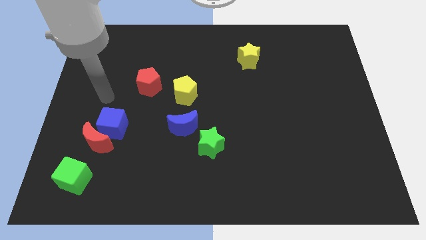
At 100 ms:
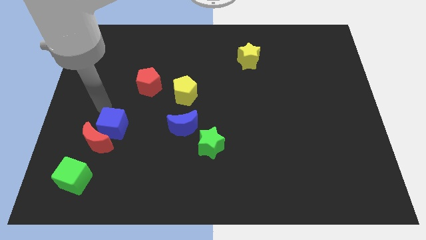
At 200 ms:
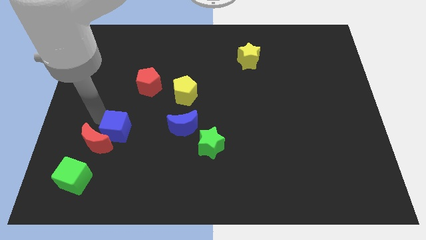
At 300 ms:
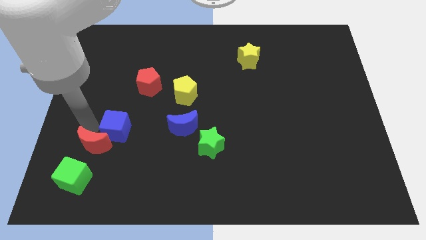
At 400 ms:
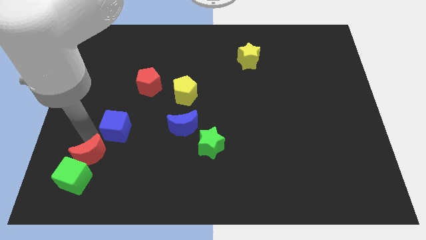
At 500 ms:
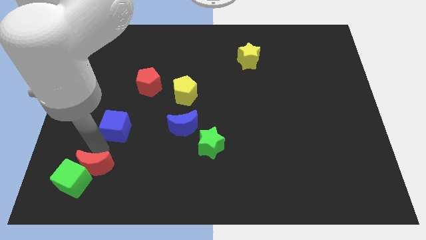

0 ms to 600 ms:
separate the blue cube from the red moon

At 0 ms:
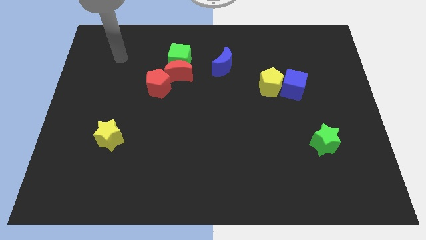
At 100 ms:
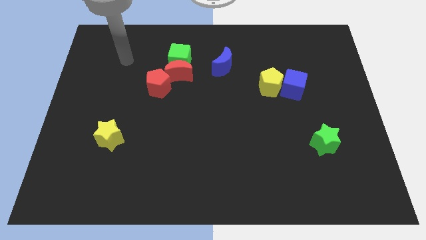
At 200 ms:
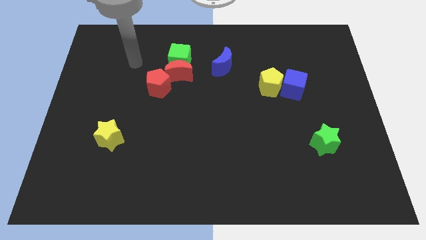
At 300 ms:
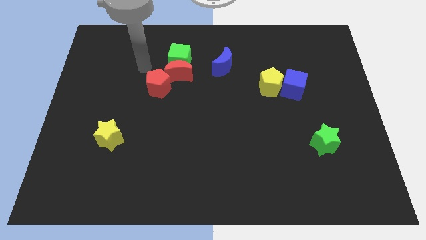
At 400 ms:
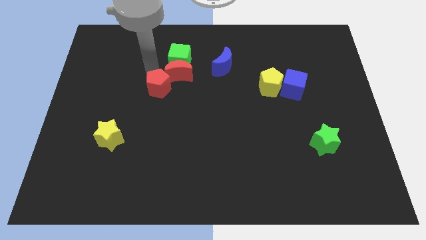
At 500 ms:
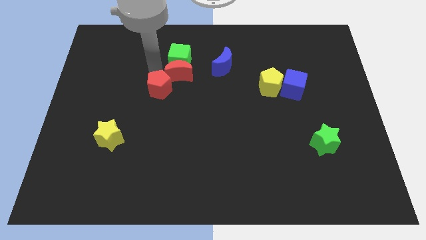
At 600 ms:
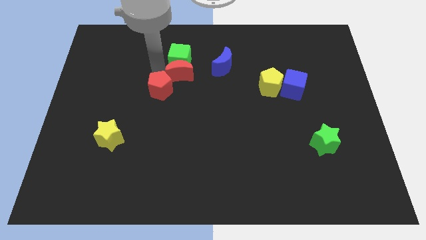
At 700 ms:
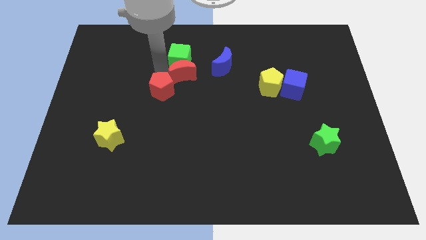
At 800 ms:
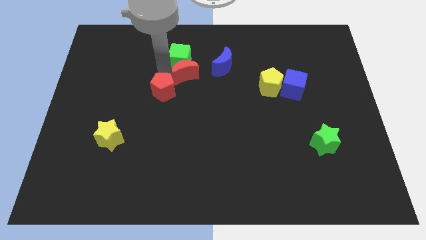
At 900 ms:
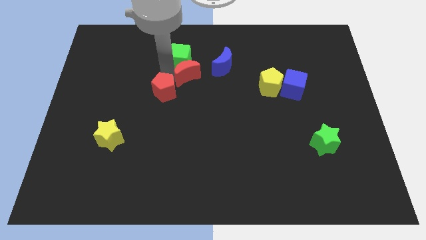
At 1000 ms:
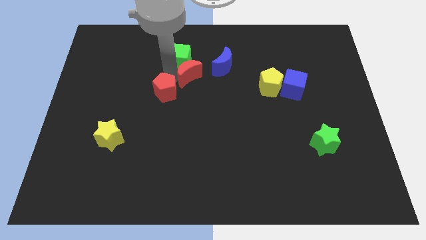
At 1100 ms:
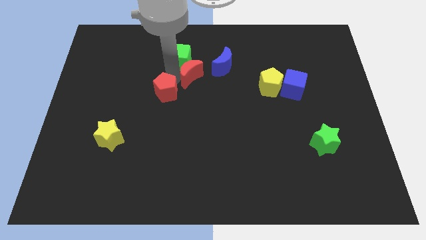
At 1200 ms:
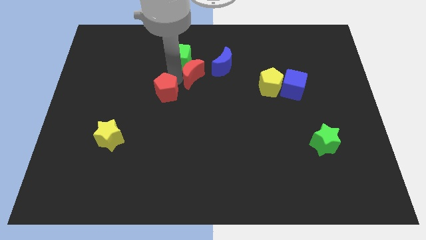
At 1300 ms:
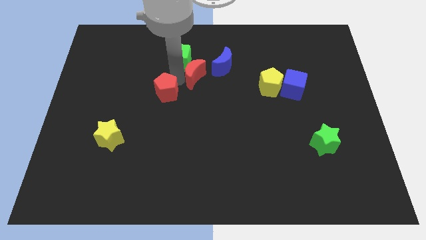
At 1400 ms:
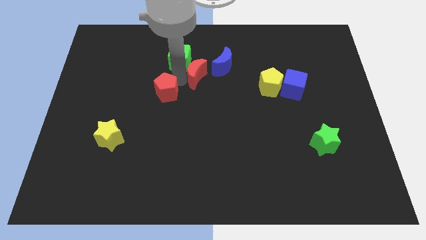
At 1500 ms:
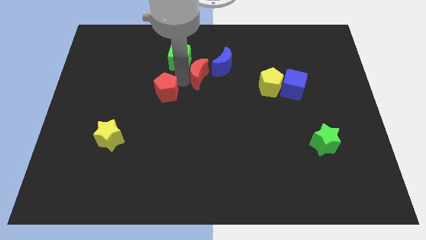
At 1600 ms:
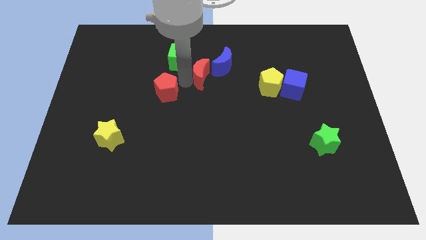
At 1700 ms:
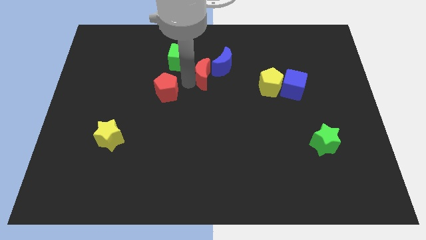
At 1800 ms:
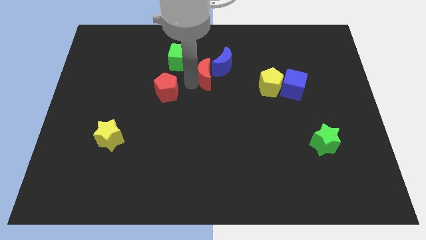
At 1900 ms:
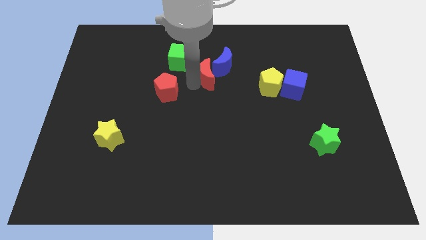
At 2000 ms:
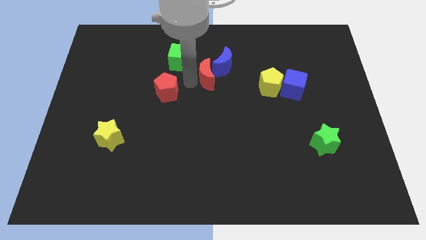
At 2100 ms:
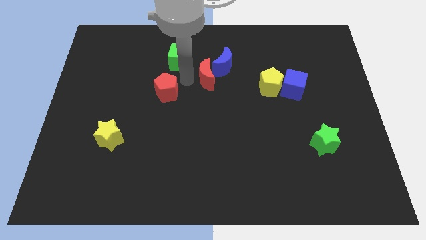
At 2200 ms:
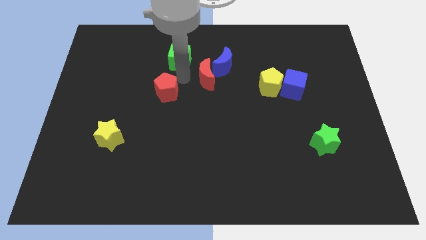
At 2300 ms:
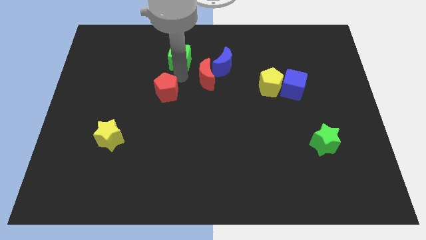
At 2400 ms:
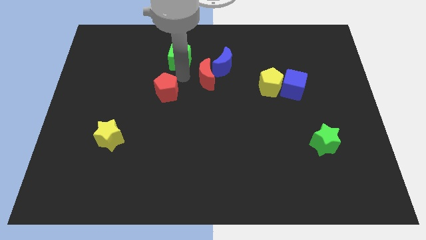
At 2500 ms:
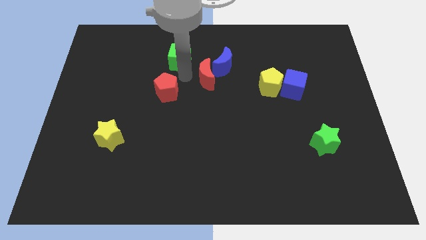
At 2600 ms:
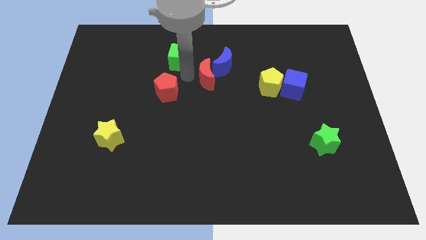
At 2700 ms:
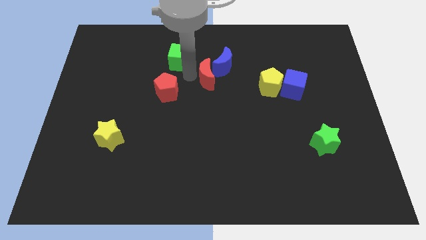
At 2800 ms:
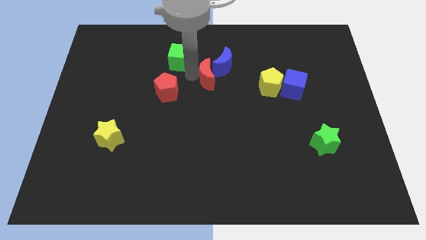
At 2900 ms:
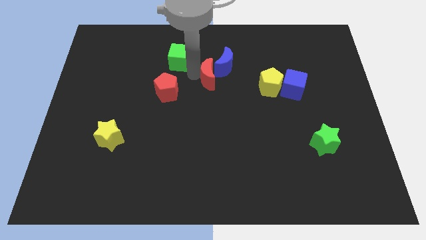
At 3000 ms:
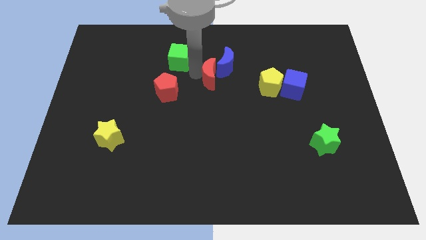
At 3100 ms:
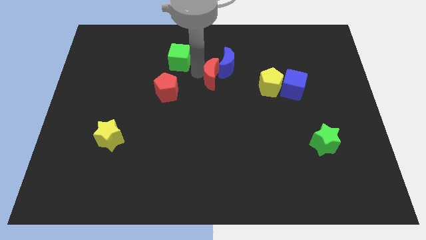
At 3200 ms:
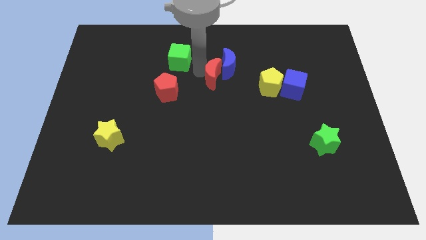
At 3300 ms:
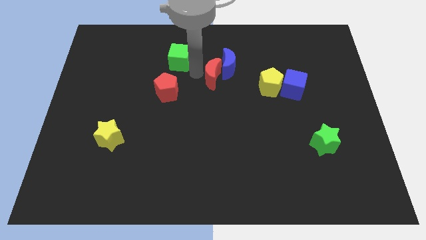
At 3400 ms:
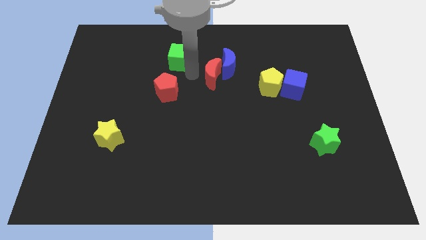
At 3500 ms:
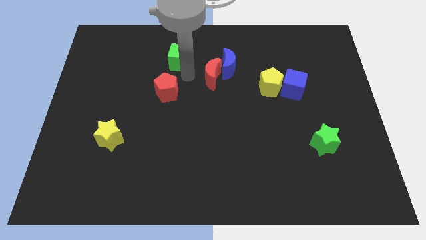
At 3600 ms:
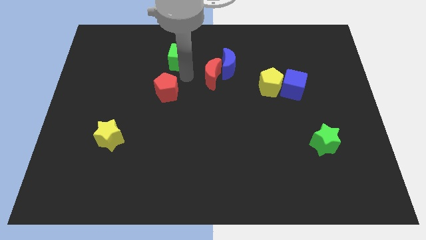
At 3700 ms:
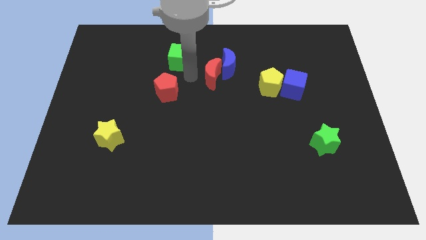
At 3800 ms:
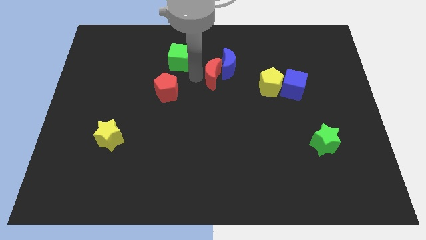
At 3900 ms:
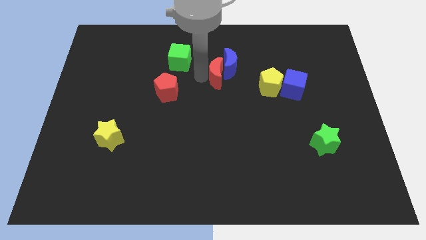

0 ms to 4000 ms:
separate the red moon from the green cube and red pentagon

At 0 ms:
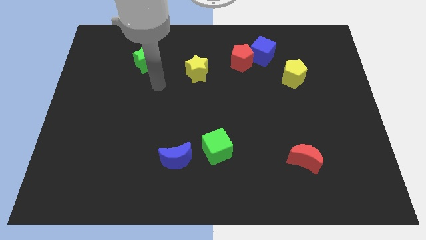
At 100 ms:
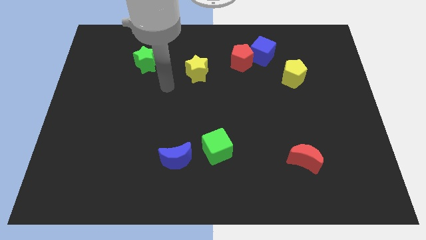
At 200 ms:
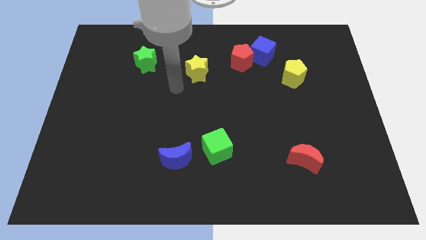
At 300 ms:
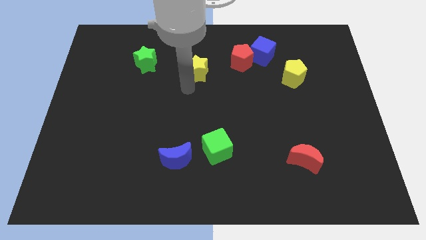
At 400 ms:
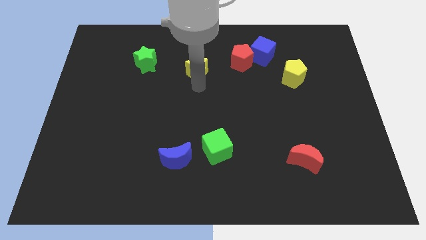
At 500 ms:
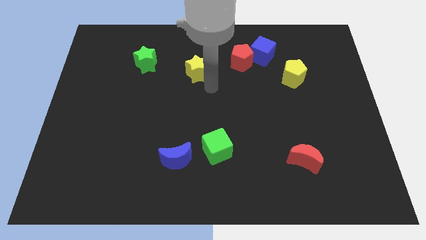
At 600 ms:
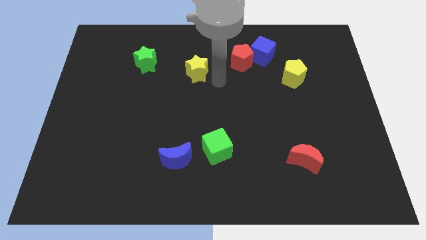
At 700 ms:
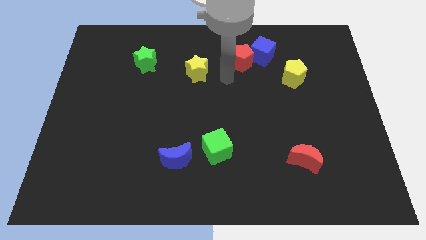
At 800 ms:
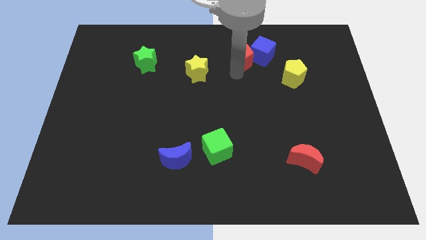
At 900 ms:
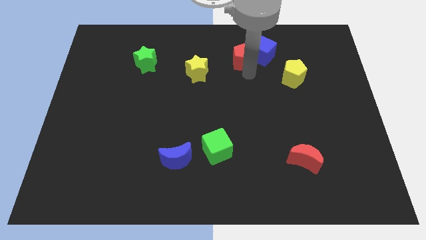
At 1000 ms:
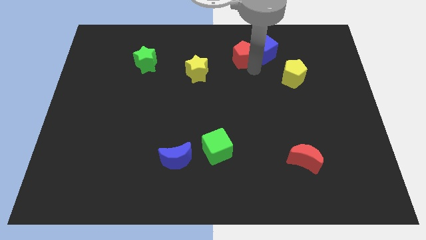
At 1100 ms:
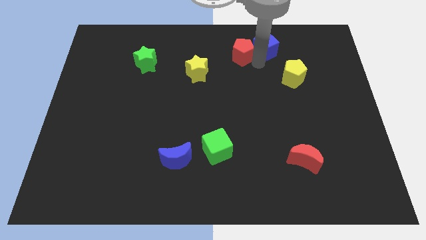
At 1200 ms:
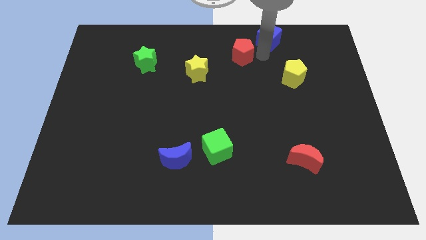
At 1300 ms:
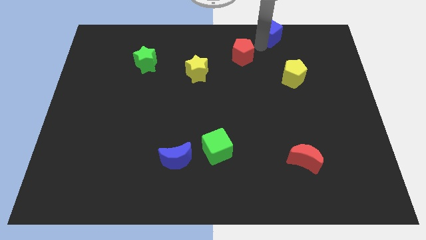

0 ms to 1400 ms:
separate the red pentagon from the blue cube

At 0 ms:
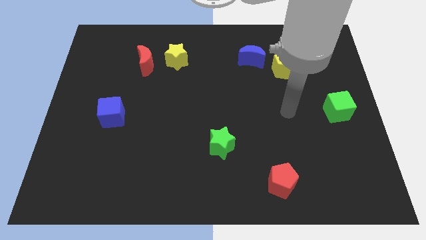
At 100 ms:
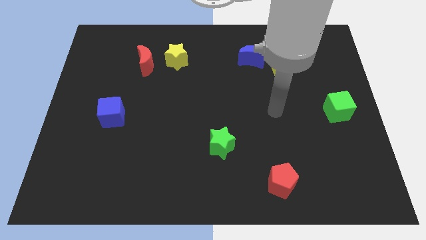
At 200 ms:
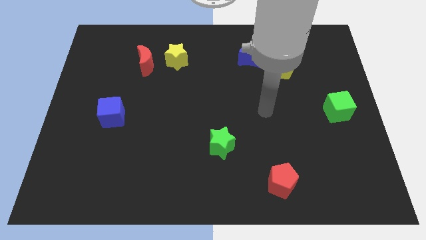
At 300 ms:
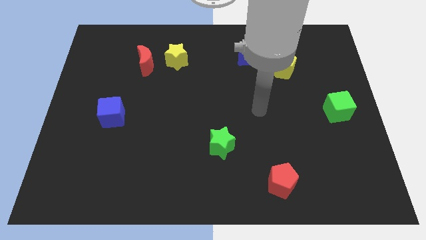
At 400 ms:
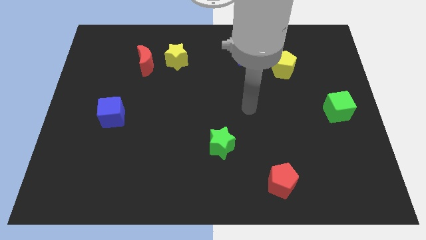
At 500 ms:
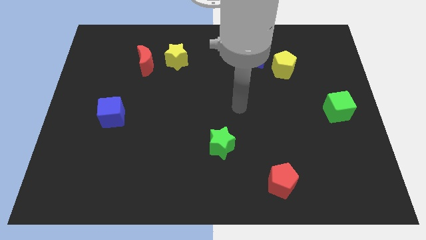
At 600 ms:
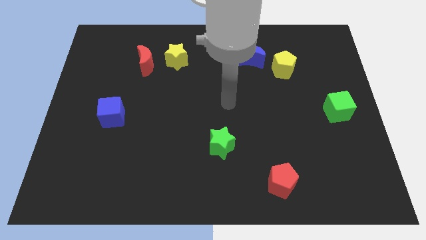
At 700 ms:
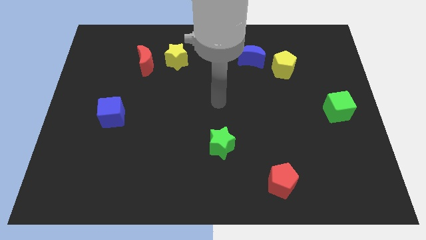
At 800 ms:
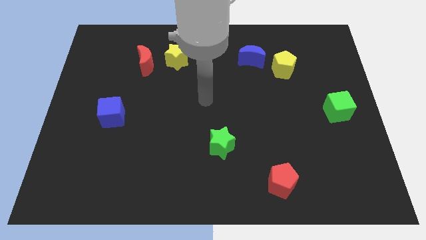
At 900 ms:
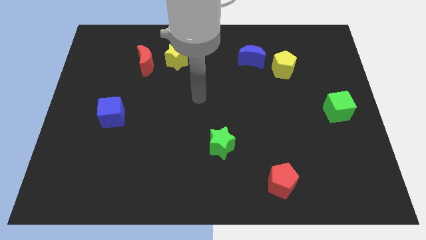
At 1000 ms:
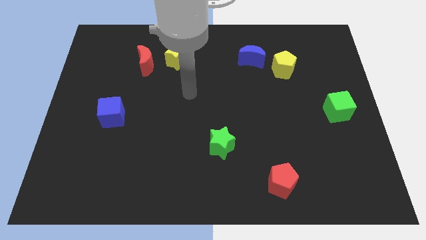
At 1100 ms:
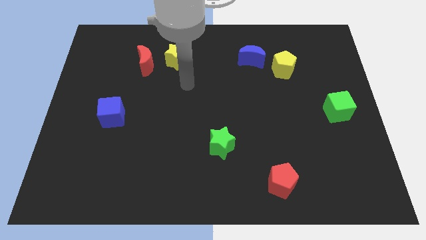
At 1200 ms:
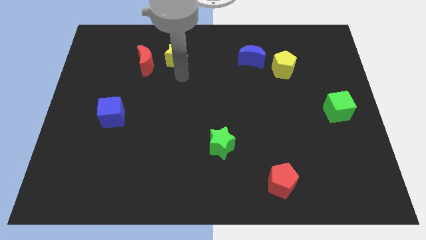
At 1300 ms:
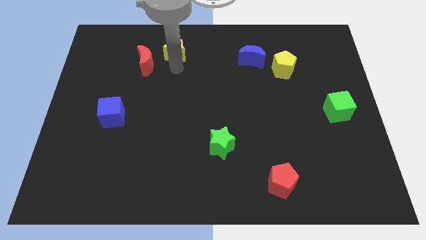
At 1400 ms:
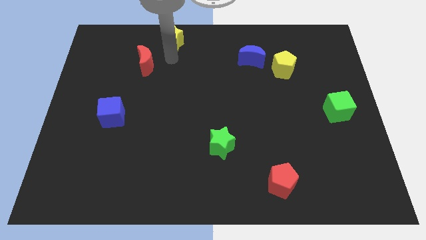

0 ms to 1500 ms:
move the red moon away from the yellow star

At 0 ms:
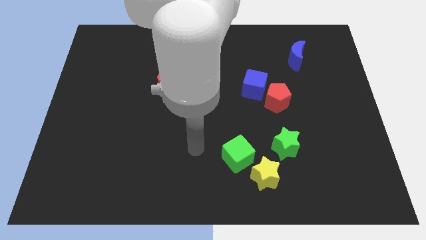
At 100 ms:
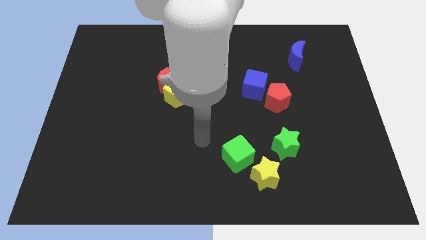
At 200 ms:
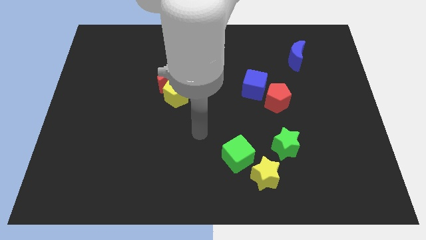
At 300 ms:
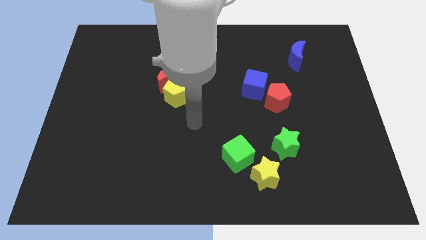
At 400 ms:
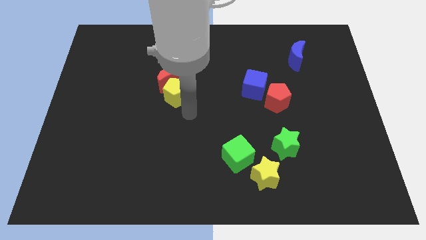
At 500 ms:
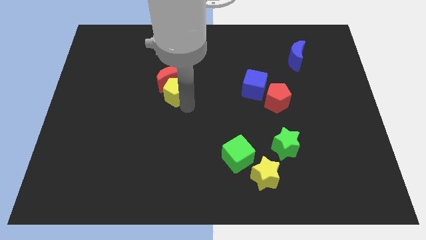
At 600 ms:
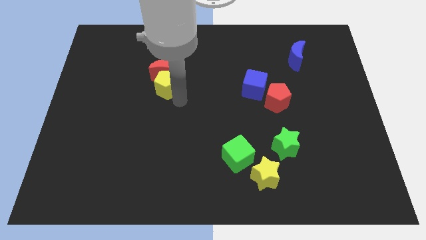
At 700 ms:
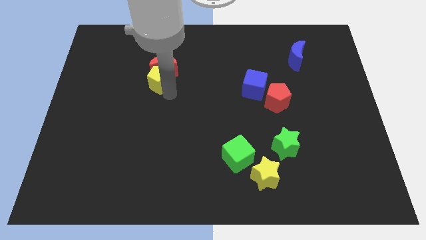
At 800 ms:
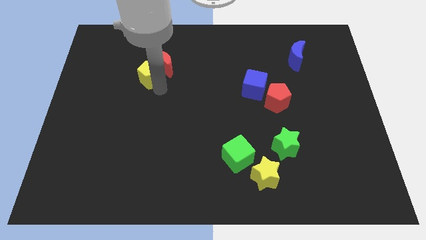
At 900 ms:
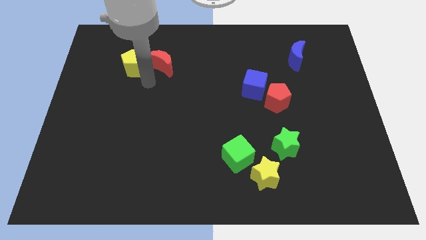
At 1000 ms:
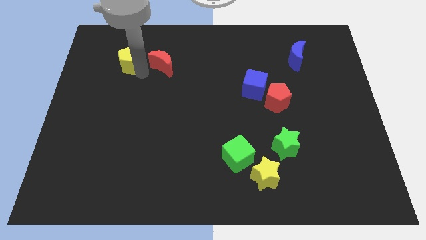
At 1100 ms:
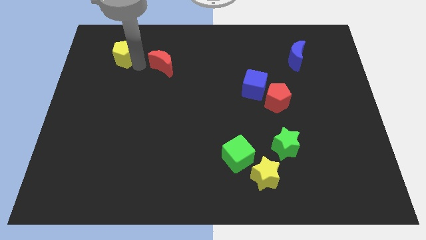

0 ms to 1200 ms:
move the red moon away from the yellow pentagon

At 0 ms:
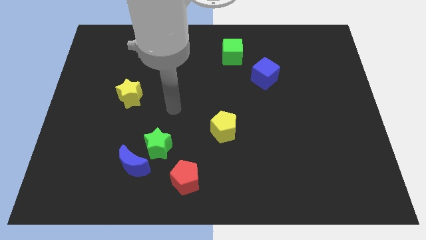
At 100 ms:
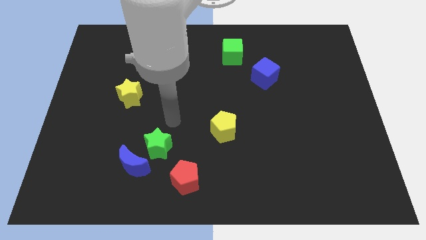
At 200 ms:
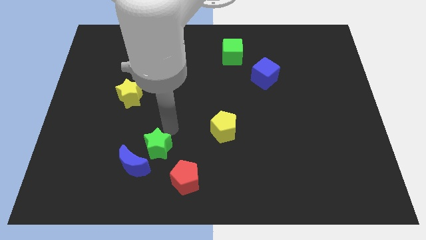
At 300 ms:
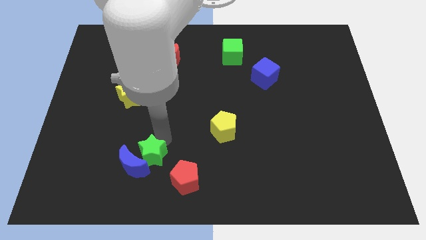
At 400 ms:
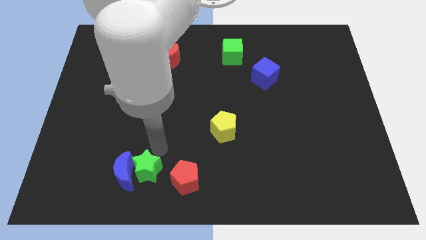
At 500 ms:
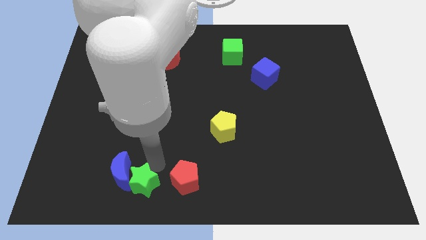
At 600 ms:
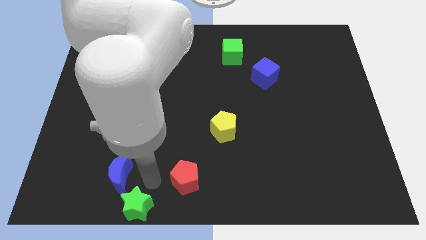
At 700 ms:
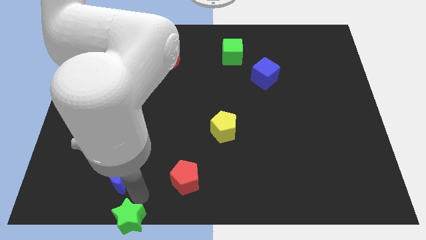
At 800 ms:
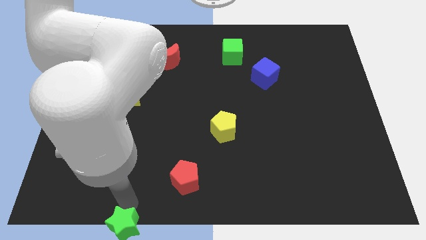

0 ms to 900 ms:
move the blue moon away from the green star
